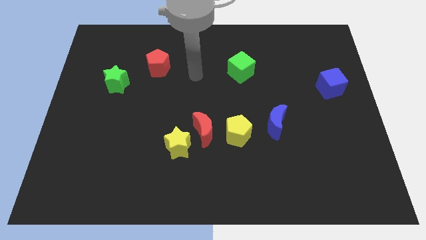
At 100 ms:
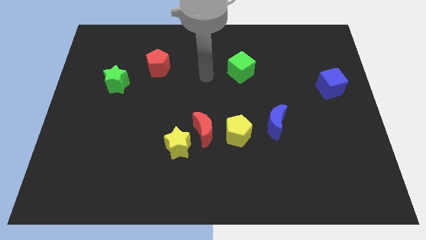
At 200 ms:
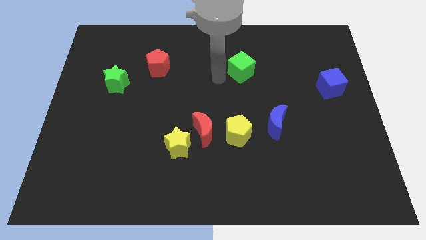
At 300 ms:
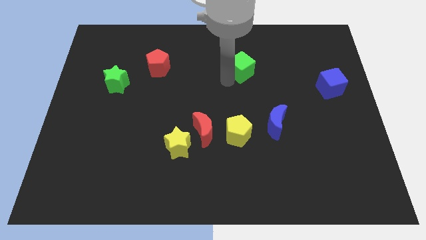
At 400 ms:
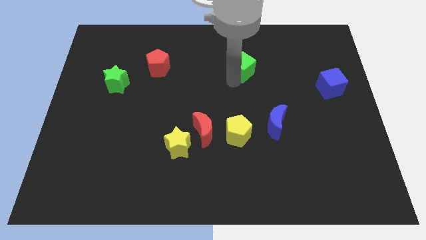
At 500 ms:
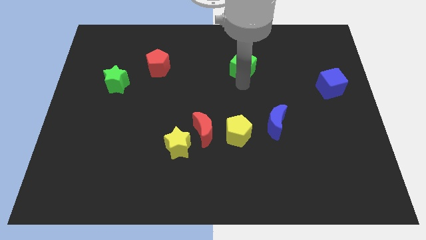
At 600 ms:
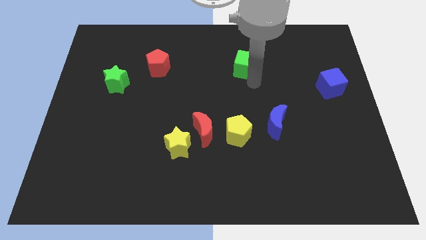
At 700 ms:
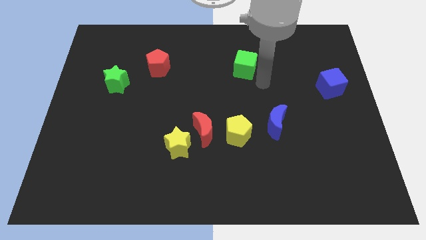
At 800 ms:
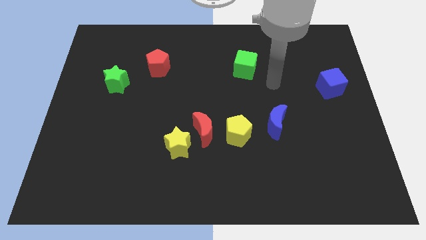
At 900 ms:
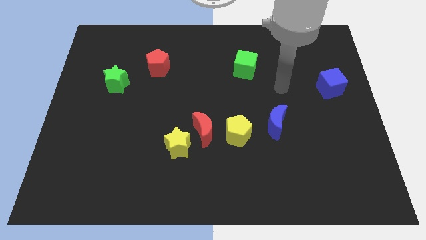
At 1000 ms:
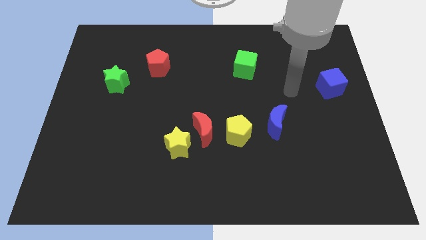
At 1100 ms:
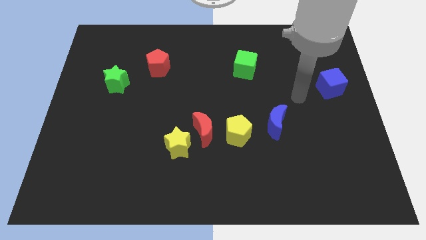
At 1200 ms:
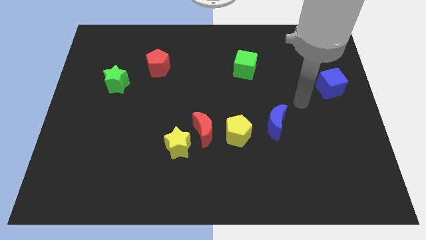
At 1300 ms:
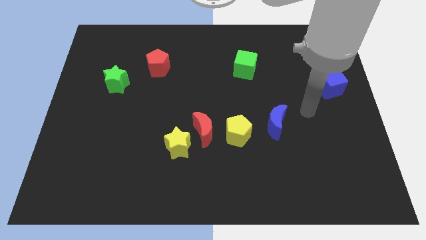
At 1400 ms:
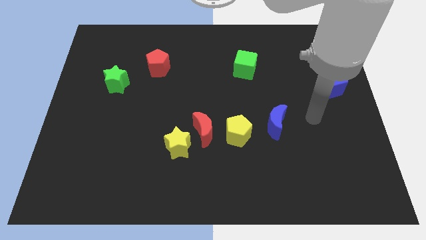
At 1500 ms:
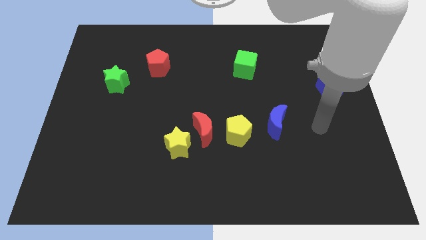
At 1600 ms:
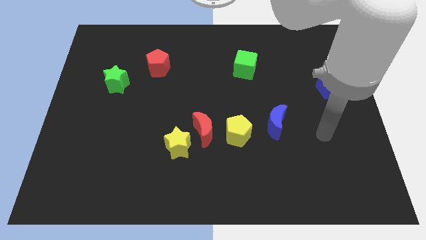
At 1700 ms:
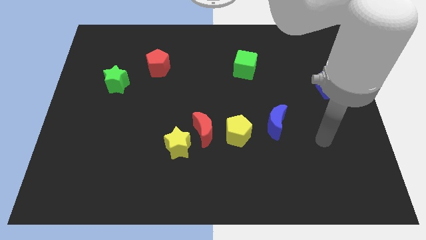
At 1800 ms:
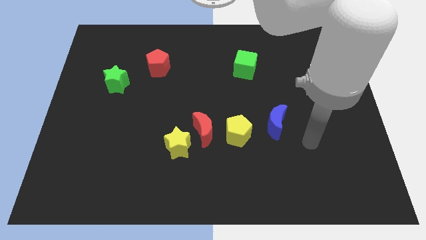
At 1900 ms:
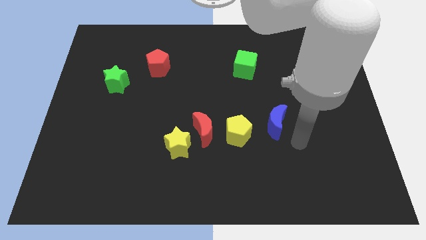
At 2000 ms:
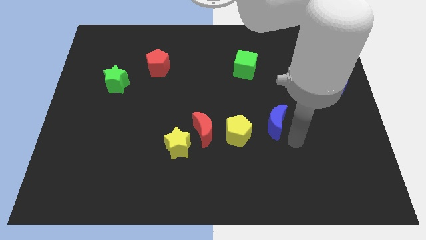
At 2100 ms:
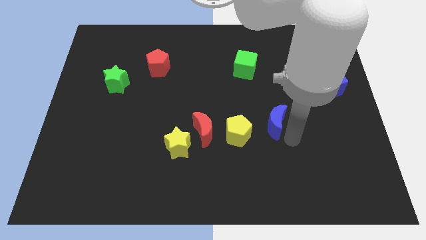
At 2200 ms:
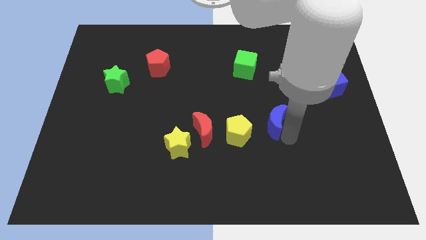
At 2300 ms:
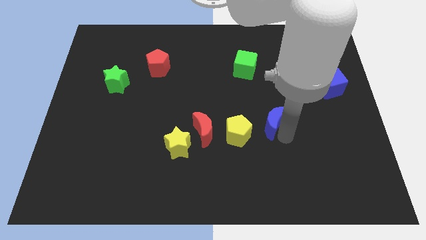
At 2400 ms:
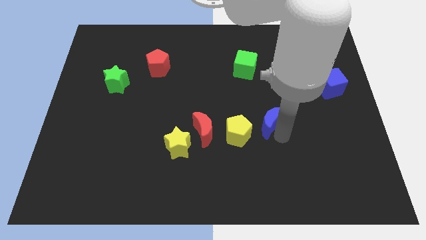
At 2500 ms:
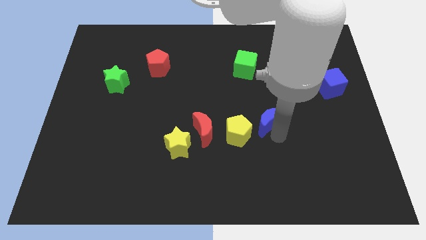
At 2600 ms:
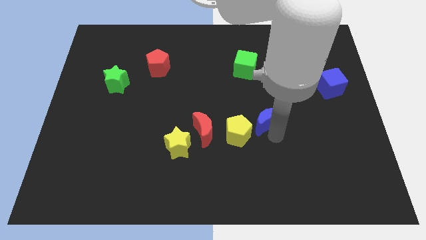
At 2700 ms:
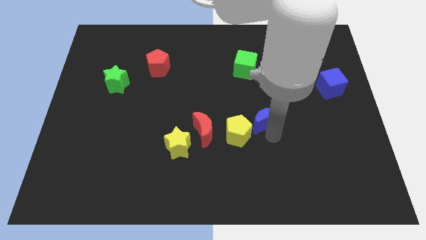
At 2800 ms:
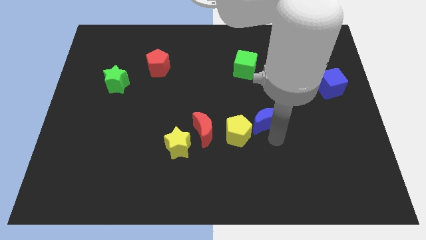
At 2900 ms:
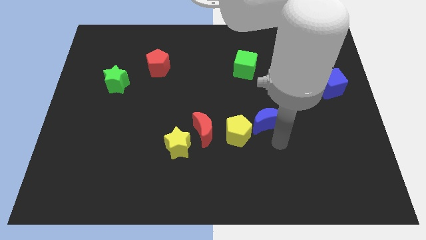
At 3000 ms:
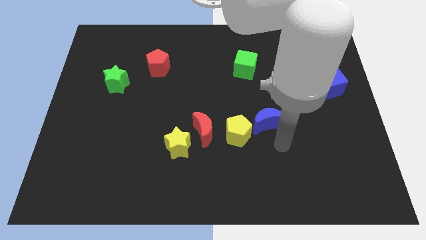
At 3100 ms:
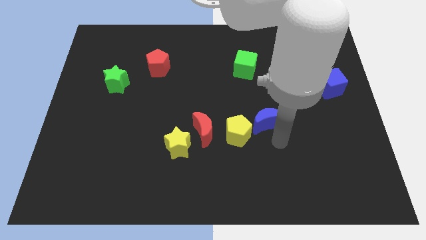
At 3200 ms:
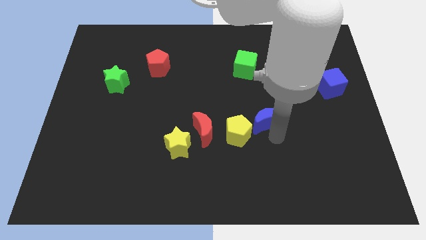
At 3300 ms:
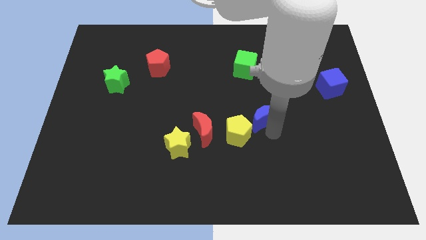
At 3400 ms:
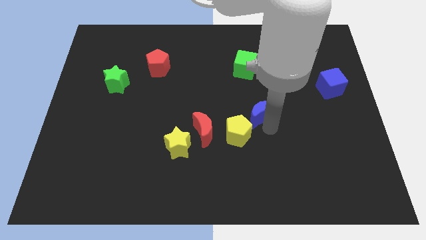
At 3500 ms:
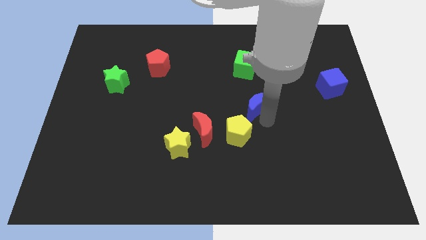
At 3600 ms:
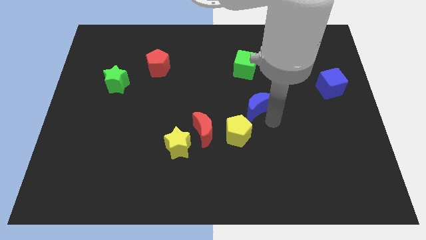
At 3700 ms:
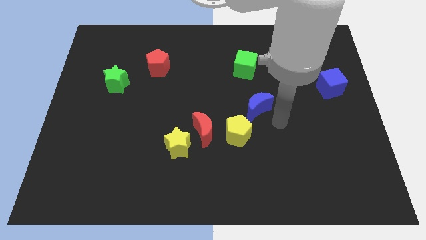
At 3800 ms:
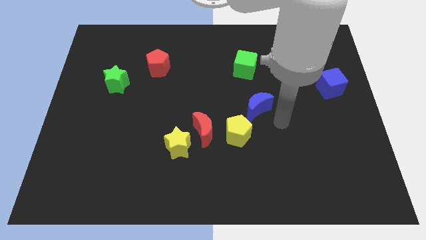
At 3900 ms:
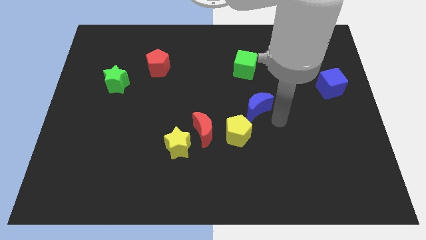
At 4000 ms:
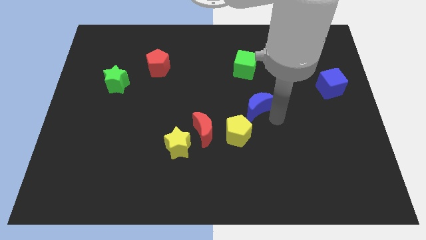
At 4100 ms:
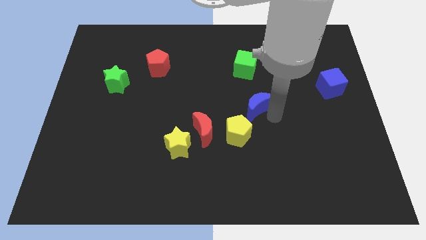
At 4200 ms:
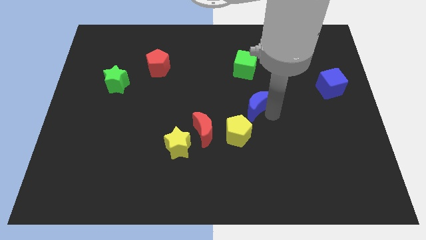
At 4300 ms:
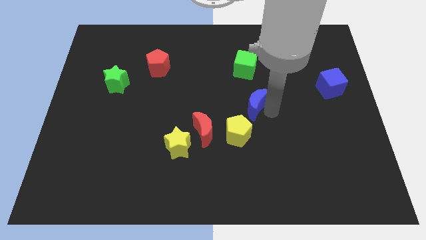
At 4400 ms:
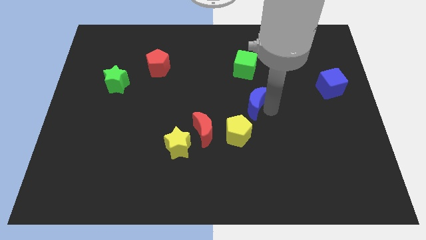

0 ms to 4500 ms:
push the blue moon slightly upwards and to the left

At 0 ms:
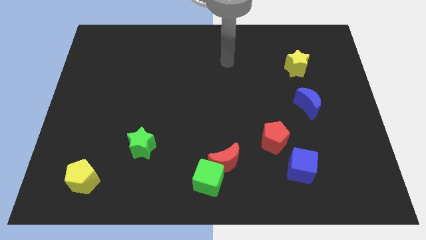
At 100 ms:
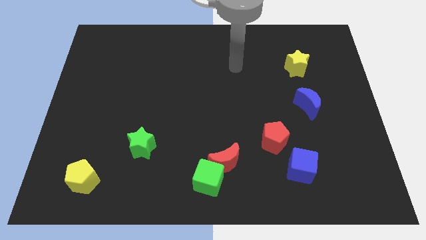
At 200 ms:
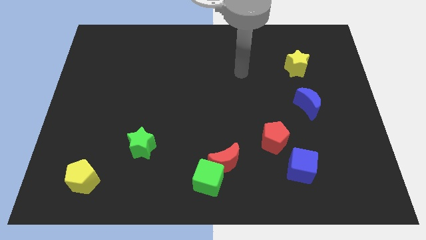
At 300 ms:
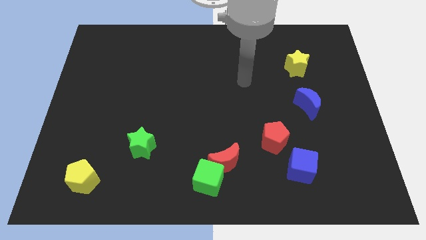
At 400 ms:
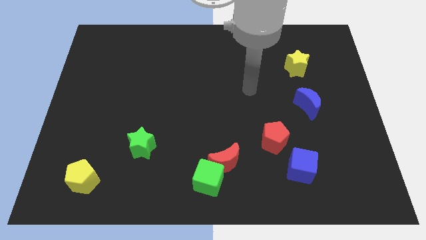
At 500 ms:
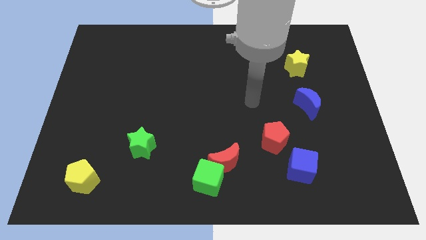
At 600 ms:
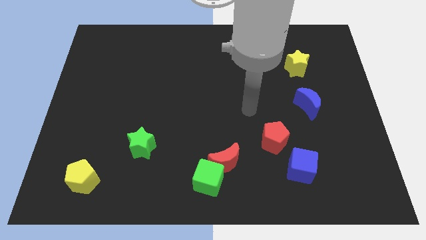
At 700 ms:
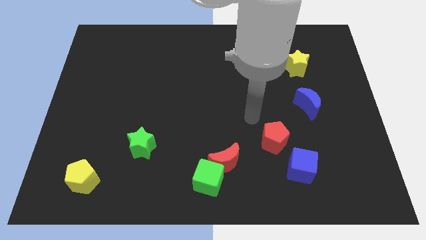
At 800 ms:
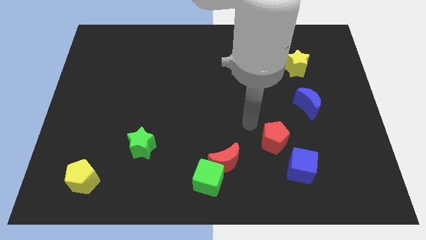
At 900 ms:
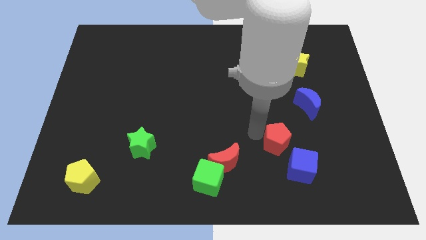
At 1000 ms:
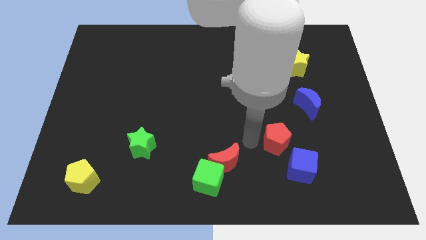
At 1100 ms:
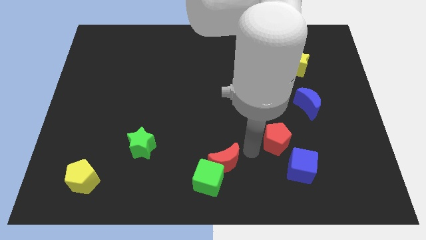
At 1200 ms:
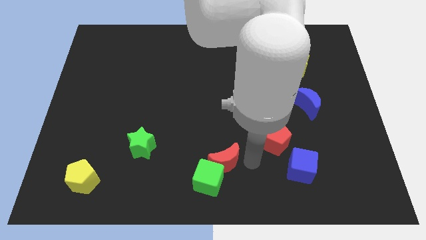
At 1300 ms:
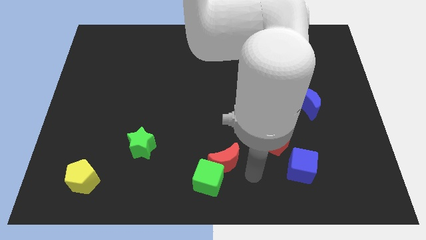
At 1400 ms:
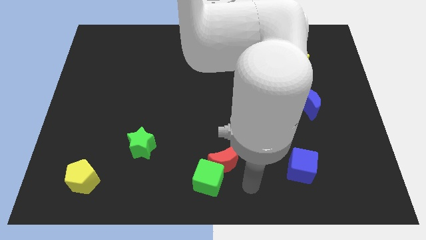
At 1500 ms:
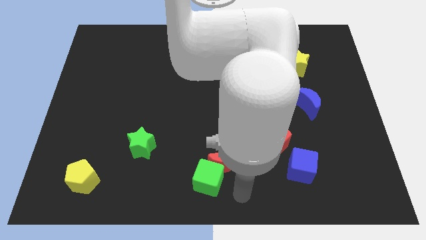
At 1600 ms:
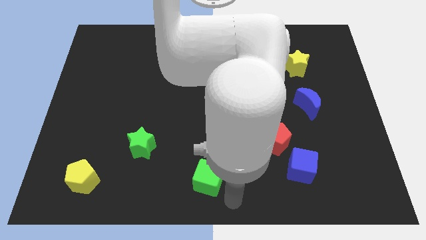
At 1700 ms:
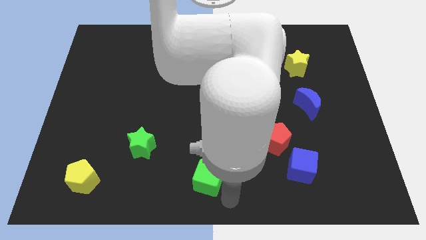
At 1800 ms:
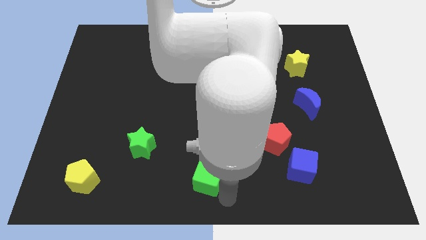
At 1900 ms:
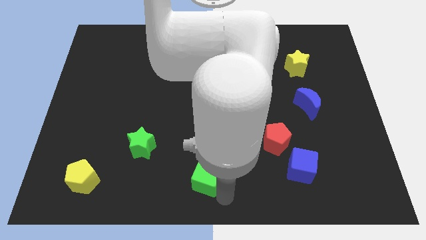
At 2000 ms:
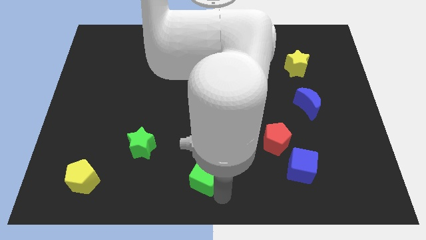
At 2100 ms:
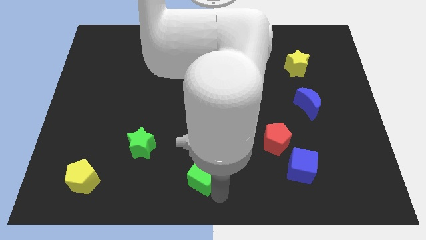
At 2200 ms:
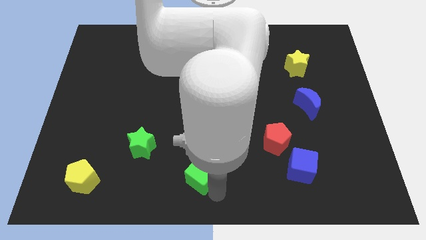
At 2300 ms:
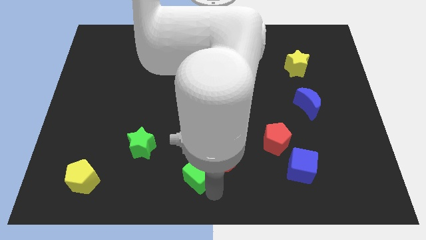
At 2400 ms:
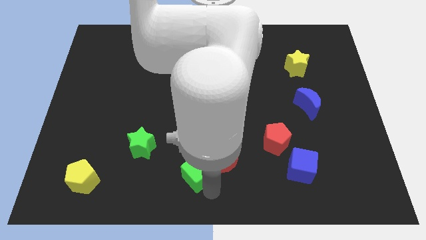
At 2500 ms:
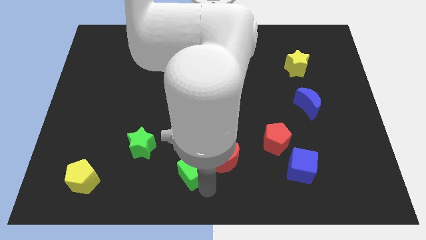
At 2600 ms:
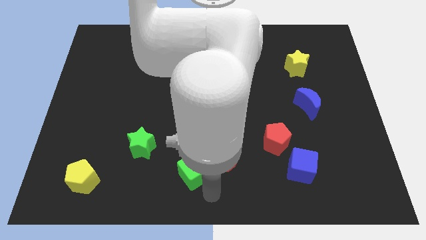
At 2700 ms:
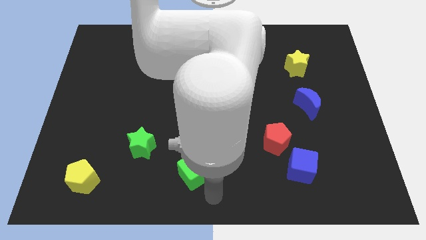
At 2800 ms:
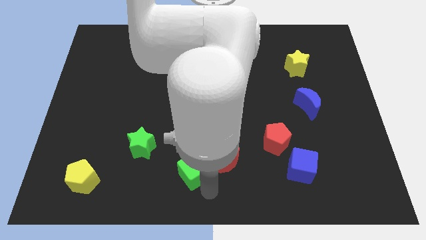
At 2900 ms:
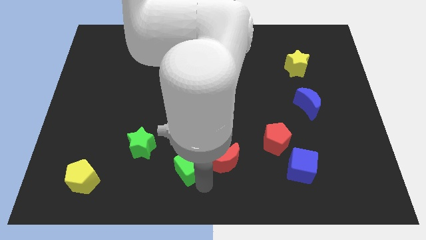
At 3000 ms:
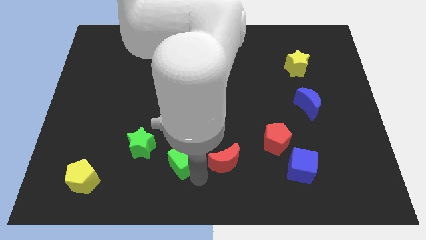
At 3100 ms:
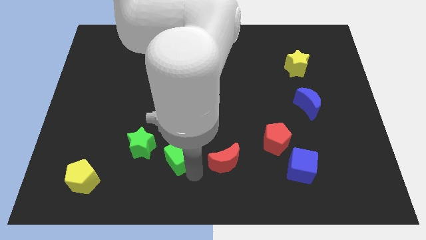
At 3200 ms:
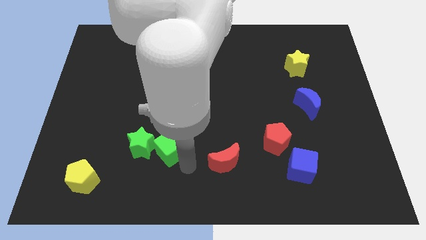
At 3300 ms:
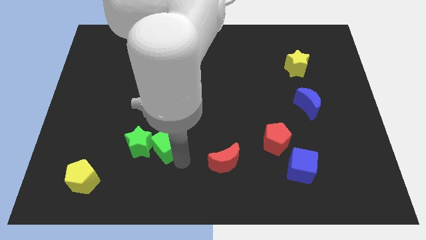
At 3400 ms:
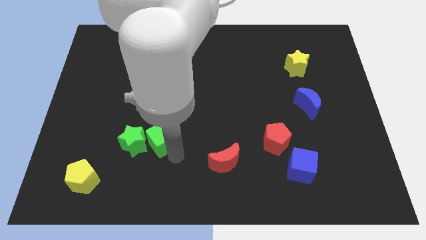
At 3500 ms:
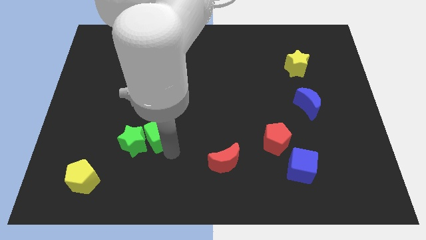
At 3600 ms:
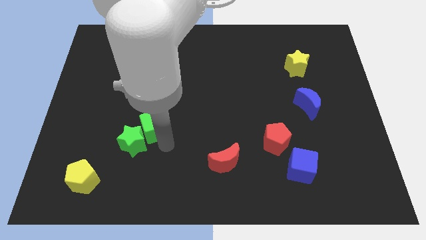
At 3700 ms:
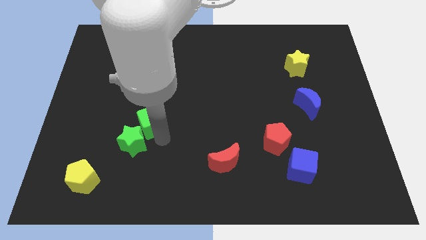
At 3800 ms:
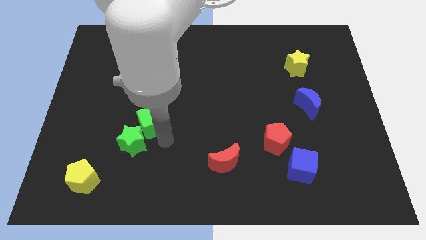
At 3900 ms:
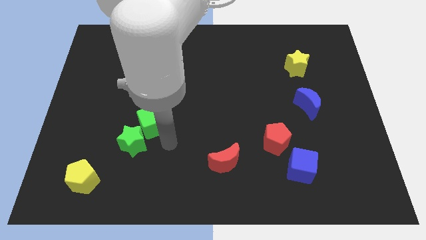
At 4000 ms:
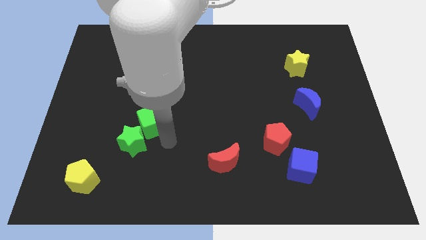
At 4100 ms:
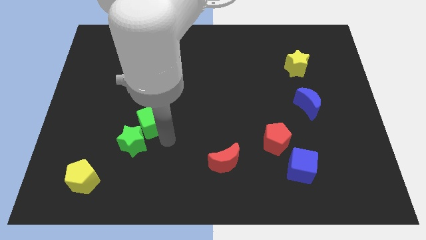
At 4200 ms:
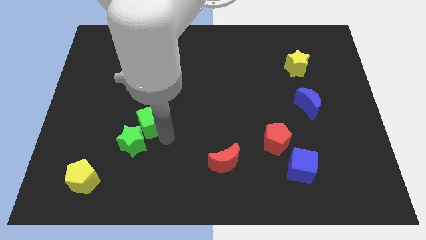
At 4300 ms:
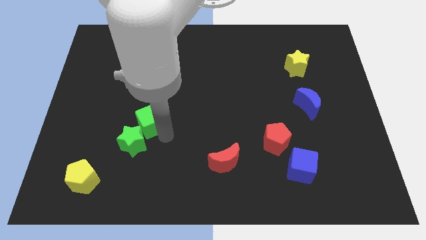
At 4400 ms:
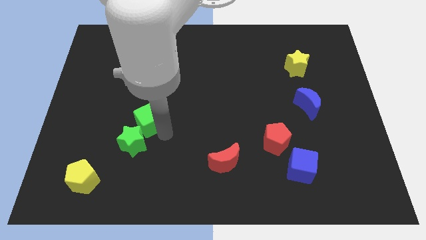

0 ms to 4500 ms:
move the green cube upwards and to the left
